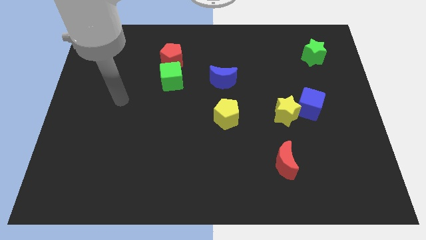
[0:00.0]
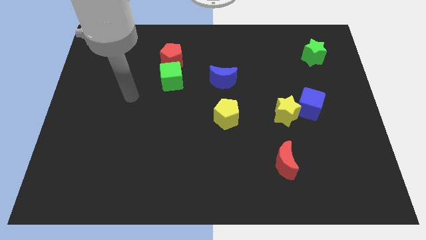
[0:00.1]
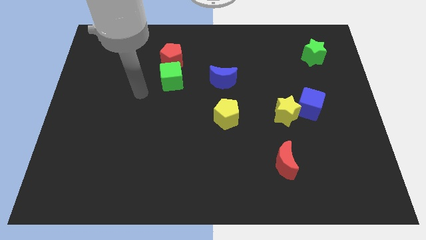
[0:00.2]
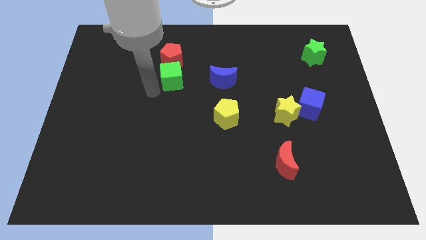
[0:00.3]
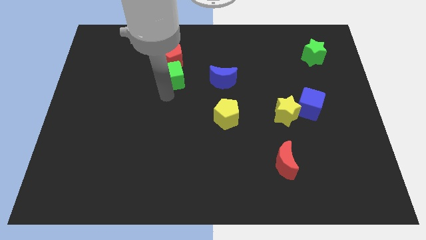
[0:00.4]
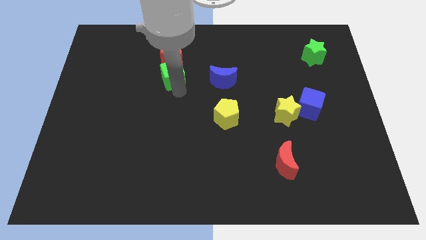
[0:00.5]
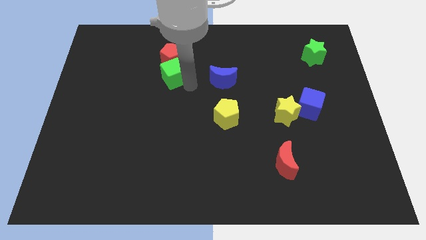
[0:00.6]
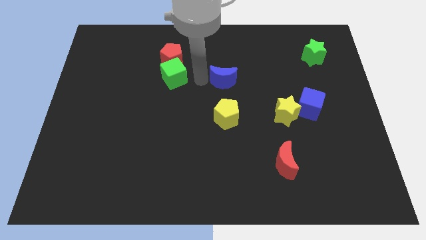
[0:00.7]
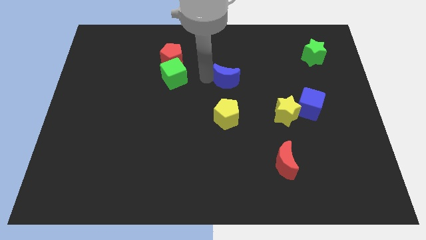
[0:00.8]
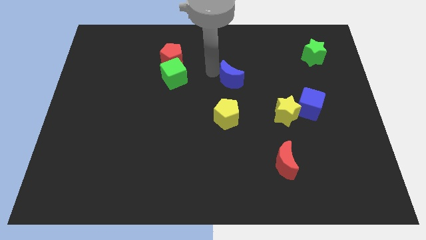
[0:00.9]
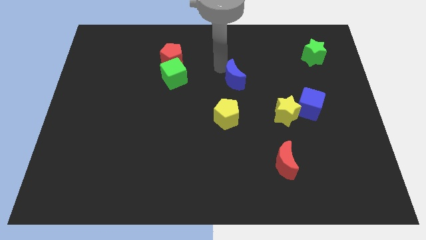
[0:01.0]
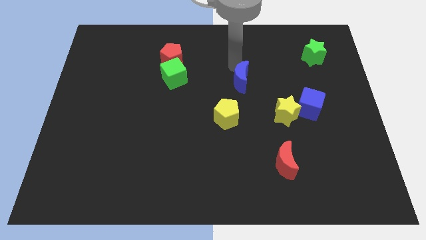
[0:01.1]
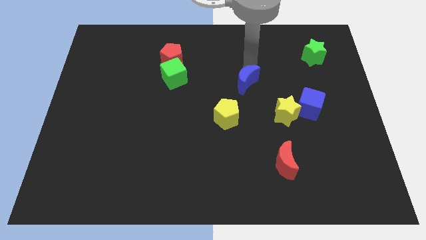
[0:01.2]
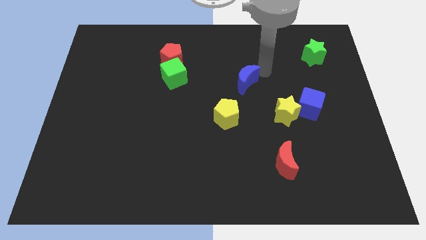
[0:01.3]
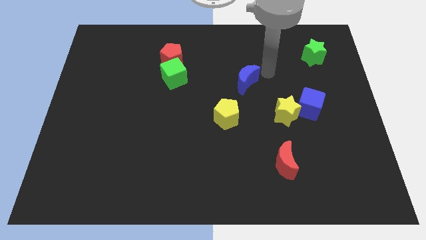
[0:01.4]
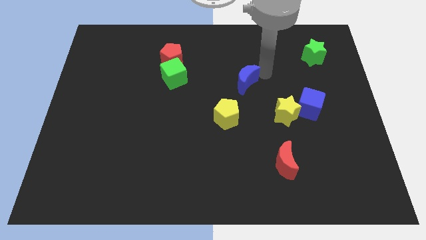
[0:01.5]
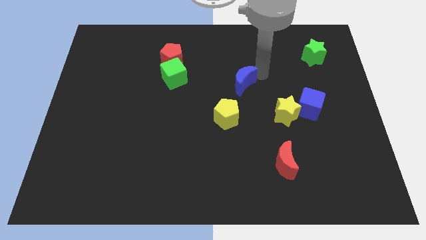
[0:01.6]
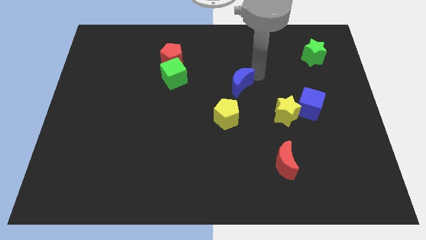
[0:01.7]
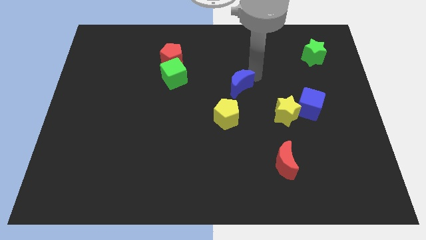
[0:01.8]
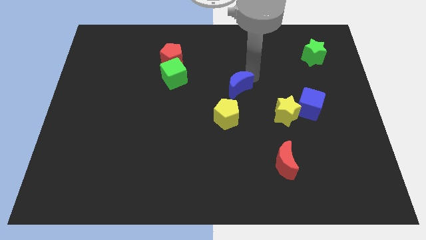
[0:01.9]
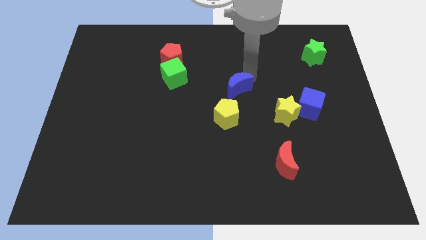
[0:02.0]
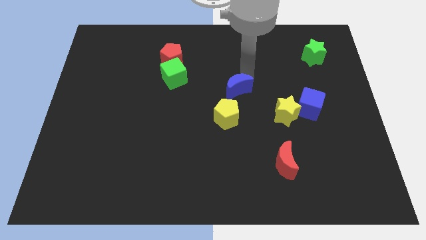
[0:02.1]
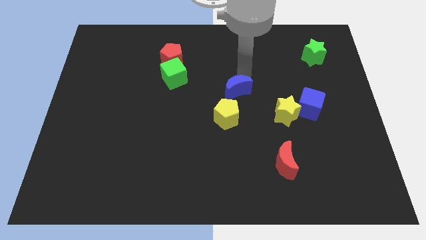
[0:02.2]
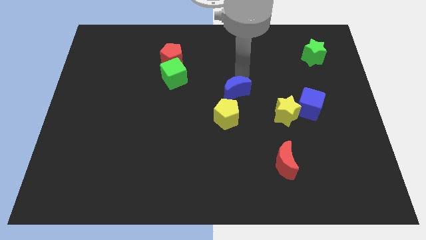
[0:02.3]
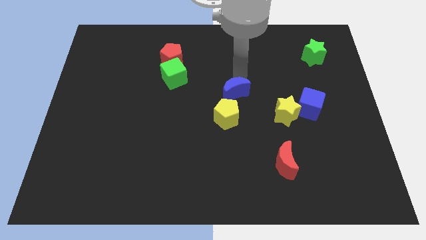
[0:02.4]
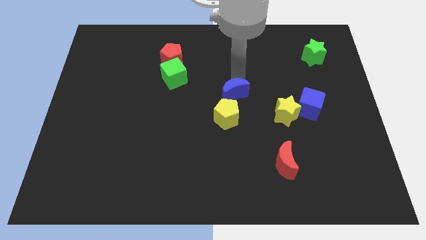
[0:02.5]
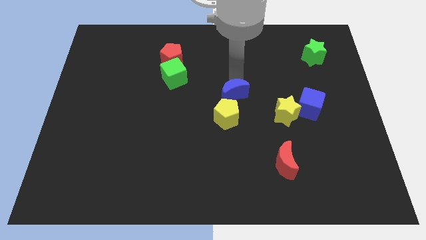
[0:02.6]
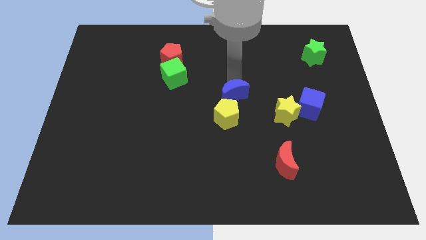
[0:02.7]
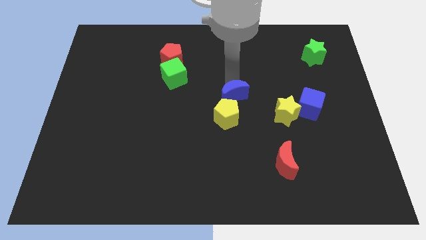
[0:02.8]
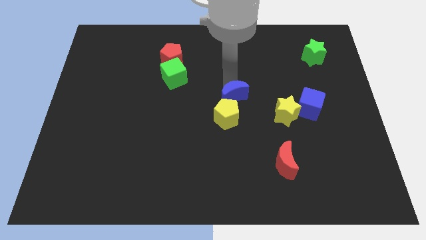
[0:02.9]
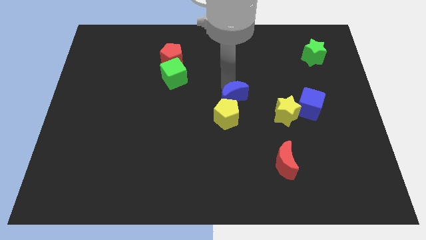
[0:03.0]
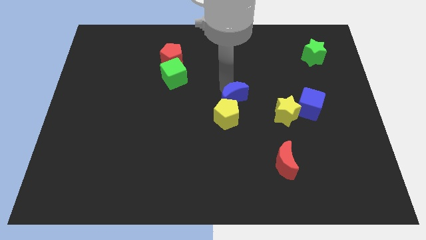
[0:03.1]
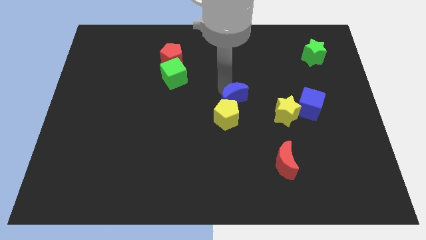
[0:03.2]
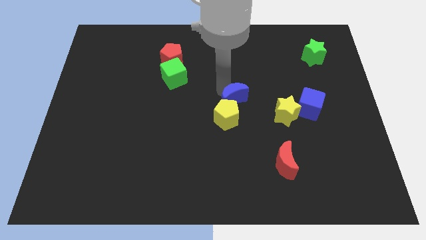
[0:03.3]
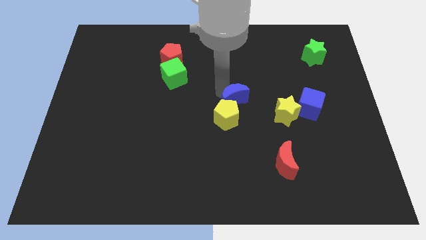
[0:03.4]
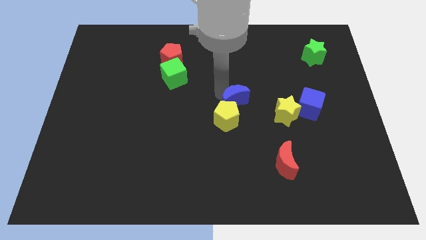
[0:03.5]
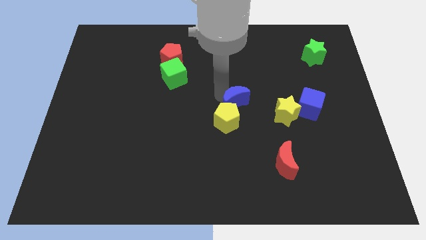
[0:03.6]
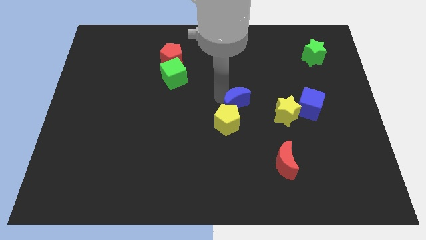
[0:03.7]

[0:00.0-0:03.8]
slide the blue moon a little bit downwards

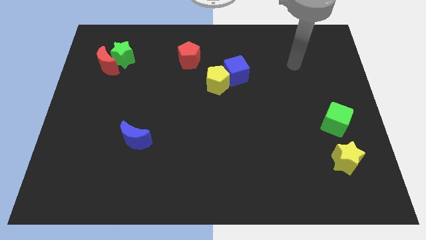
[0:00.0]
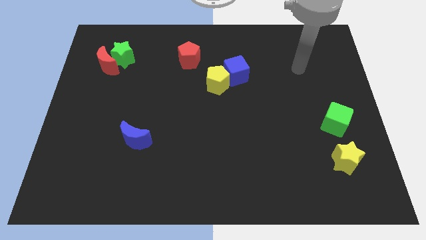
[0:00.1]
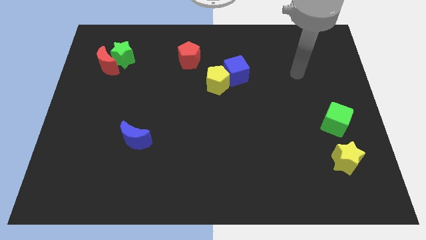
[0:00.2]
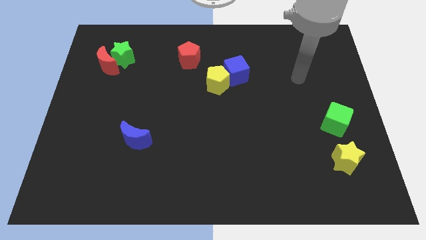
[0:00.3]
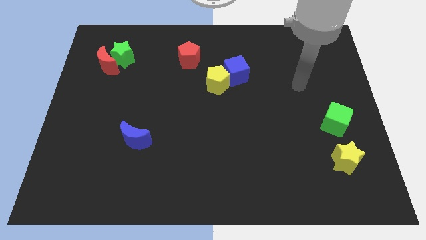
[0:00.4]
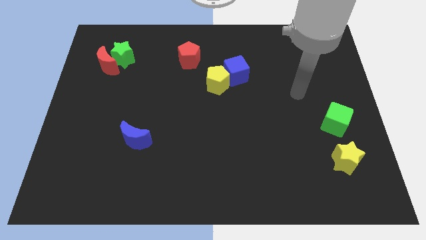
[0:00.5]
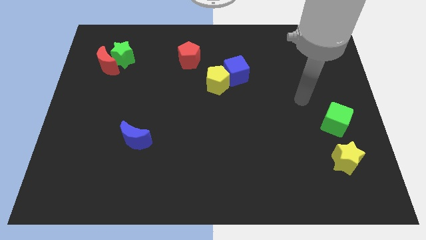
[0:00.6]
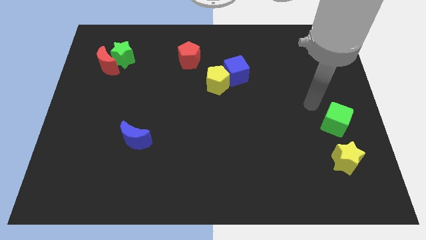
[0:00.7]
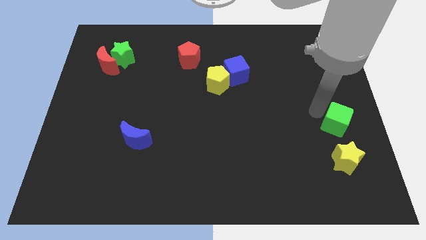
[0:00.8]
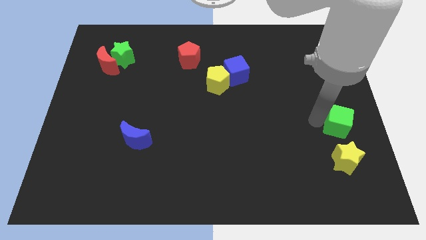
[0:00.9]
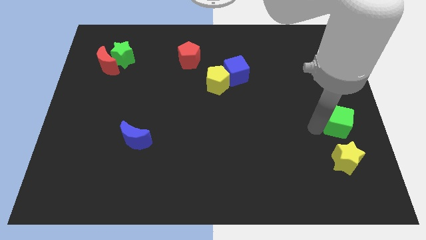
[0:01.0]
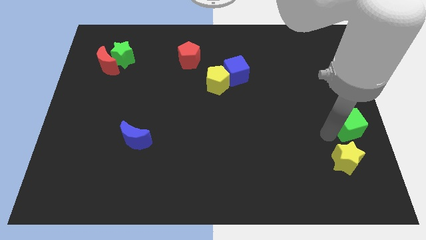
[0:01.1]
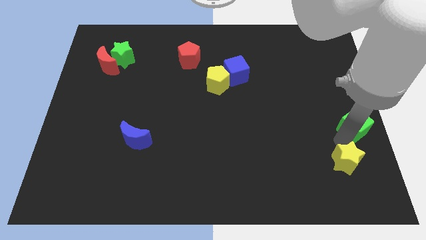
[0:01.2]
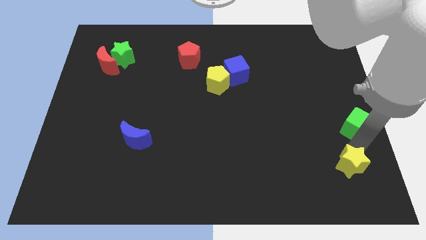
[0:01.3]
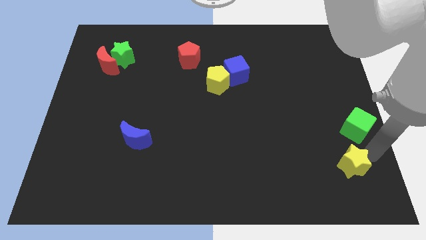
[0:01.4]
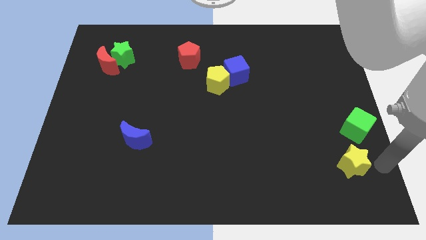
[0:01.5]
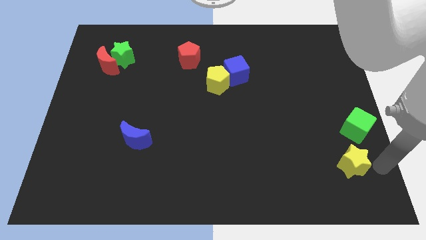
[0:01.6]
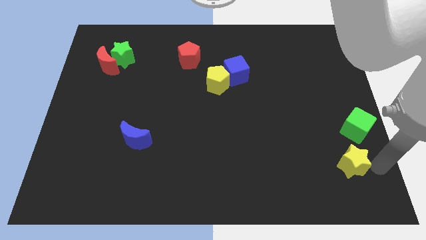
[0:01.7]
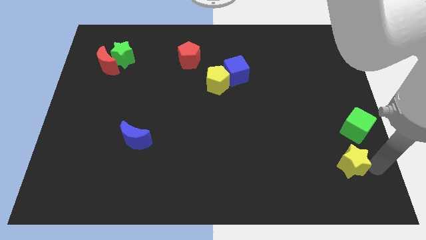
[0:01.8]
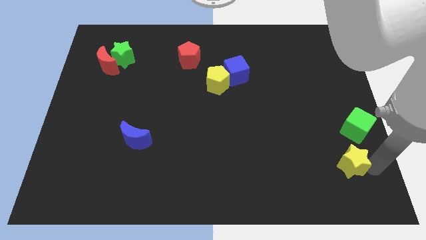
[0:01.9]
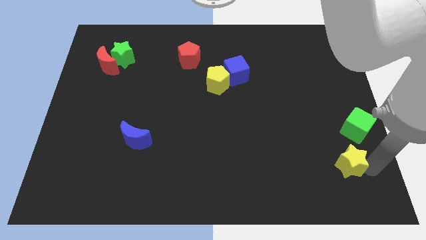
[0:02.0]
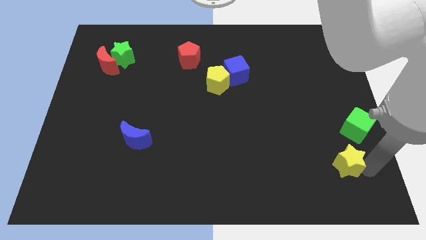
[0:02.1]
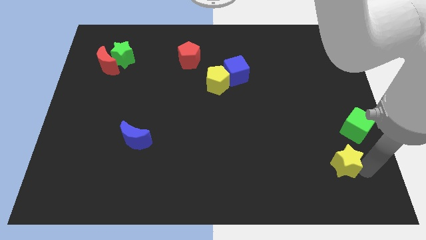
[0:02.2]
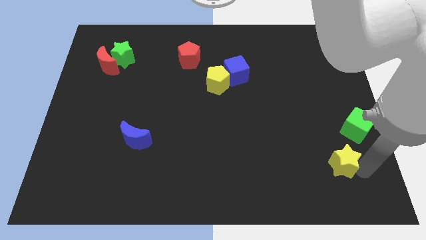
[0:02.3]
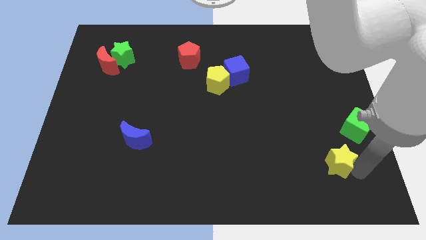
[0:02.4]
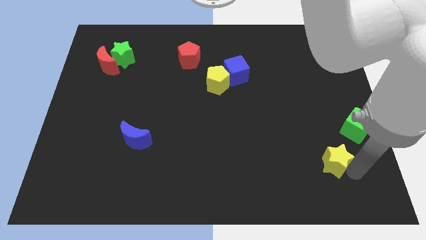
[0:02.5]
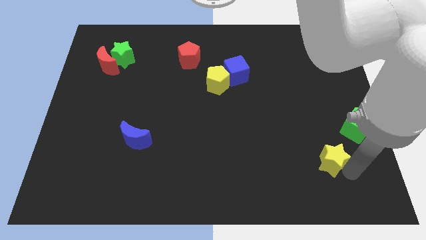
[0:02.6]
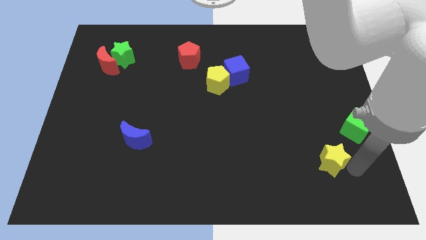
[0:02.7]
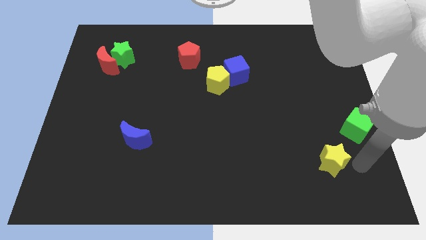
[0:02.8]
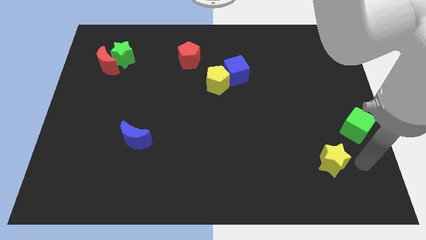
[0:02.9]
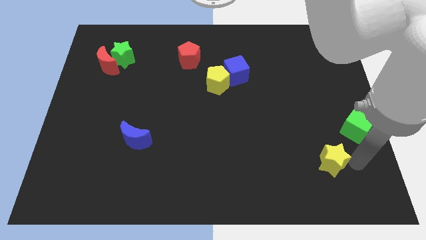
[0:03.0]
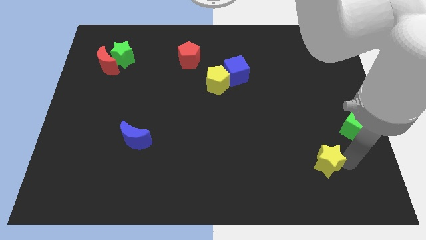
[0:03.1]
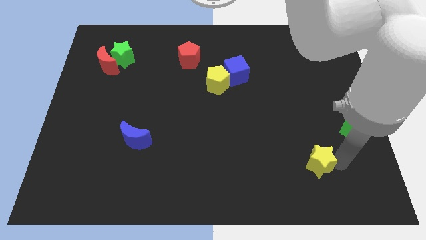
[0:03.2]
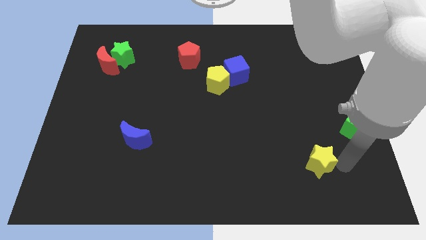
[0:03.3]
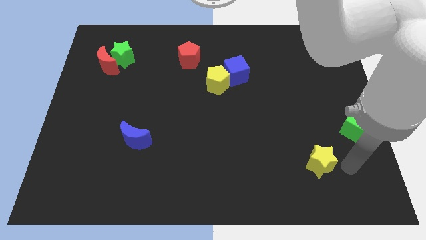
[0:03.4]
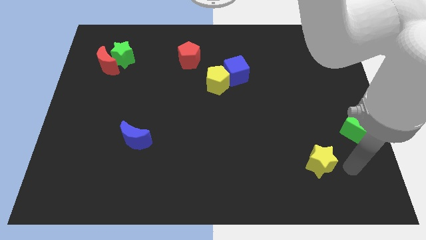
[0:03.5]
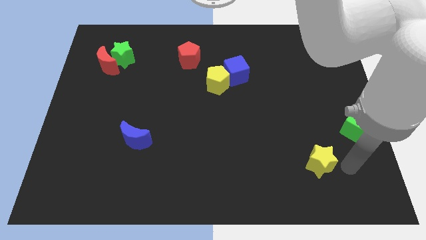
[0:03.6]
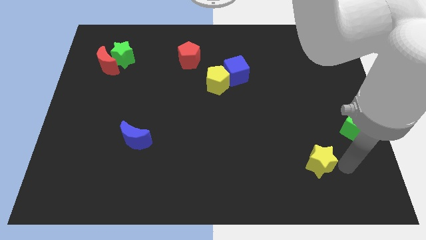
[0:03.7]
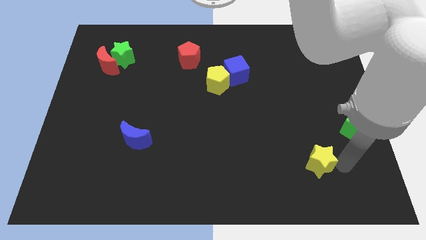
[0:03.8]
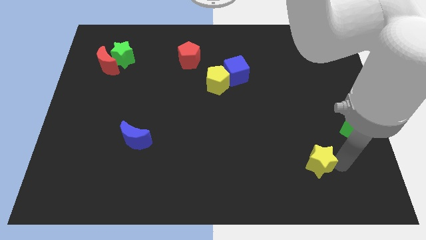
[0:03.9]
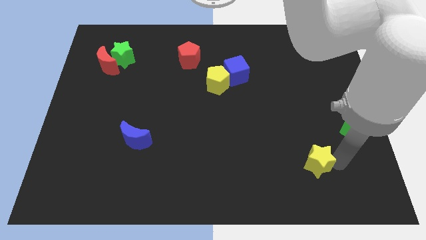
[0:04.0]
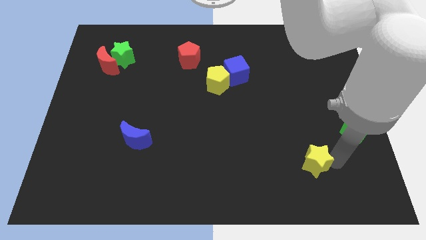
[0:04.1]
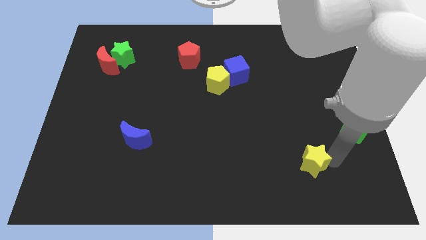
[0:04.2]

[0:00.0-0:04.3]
push the yellow star a little left
